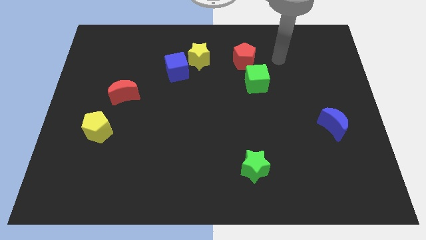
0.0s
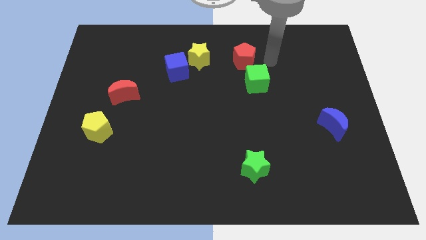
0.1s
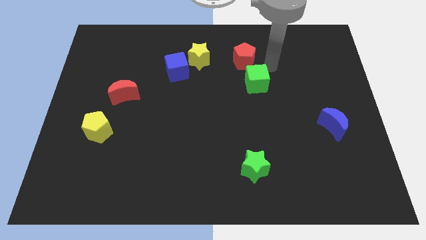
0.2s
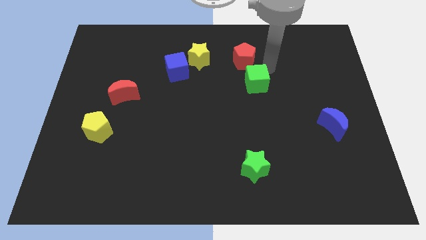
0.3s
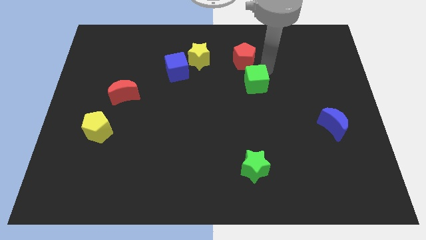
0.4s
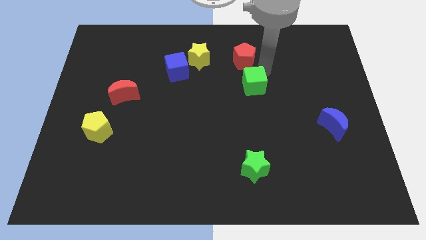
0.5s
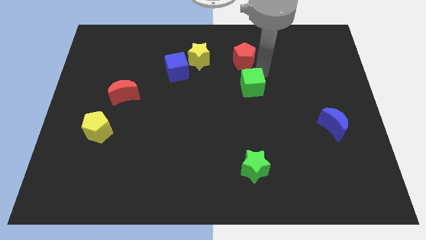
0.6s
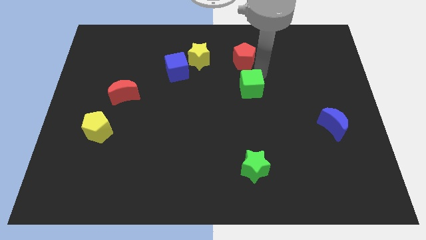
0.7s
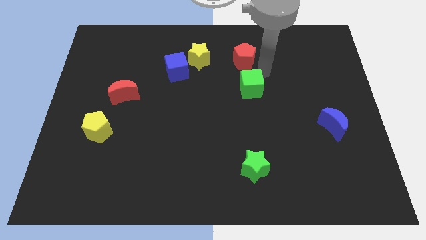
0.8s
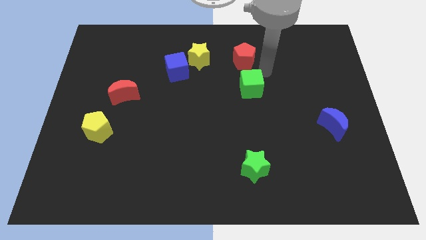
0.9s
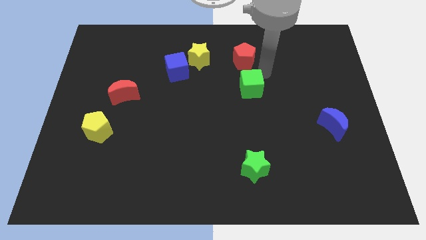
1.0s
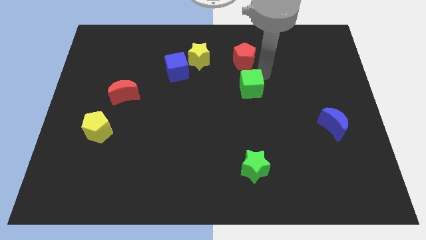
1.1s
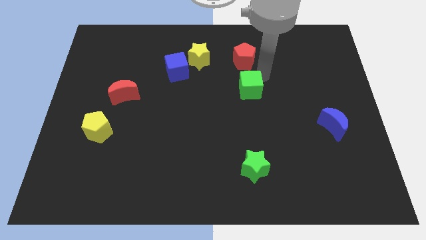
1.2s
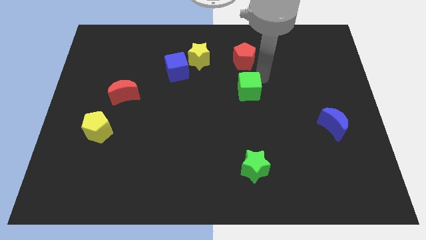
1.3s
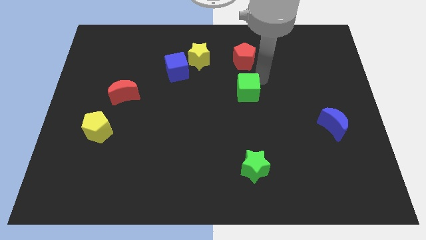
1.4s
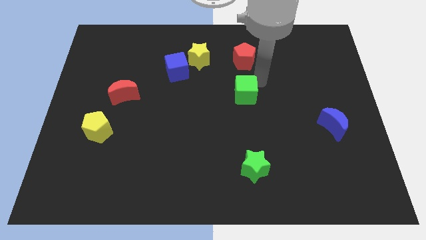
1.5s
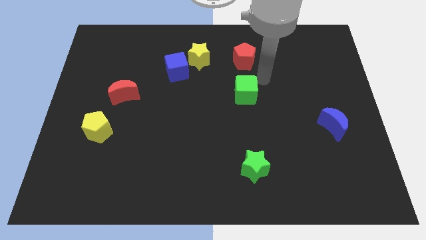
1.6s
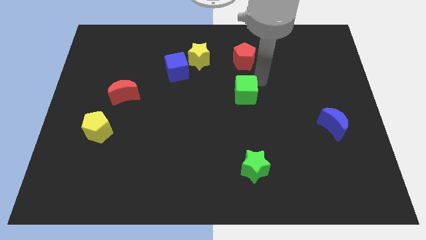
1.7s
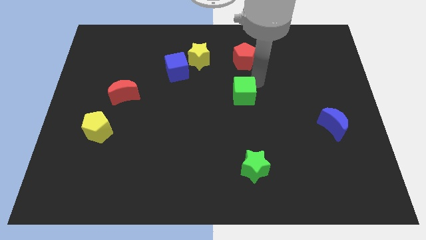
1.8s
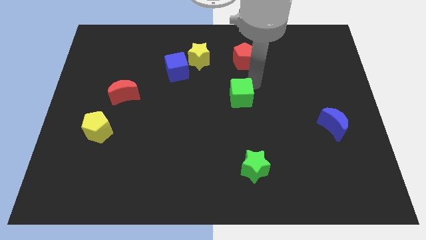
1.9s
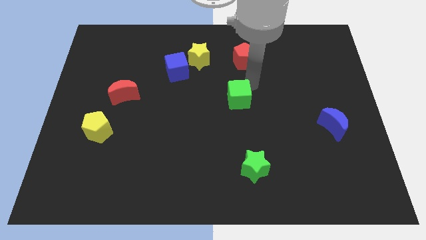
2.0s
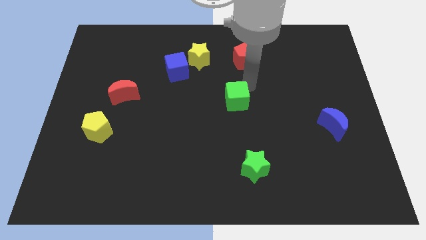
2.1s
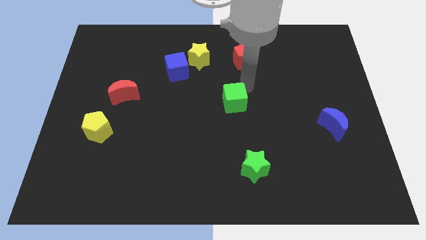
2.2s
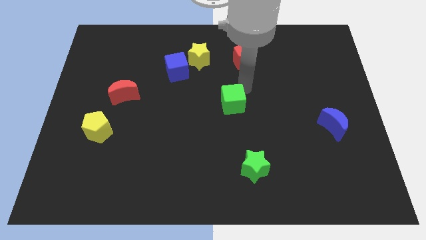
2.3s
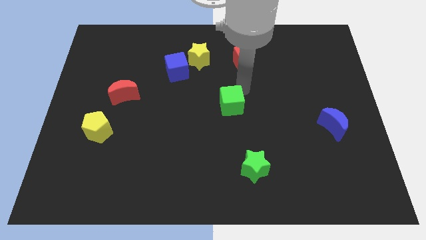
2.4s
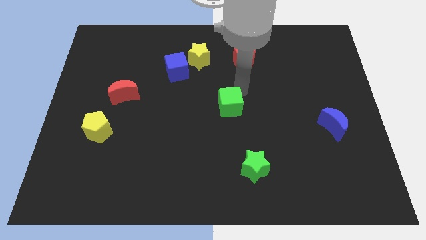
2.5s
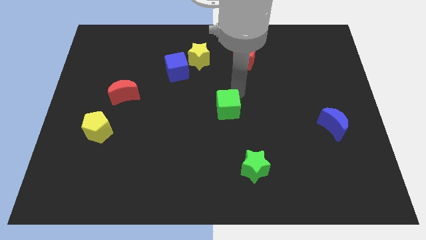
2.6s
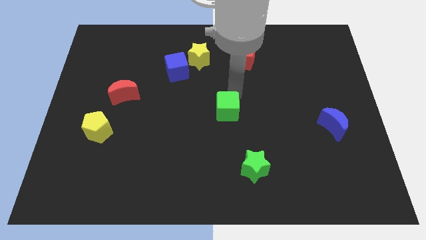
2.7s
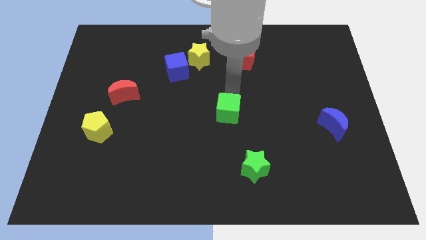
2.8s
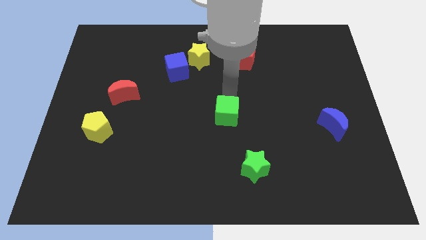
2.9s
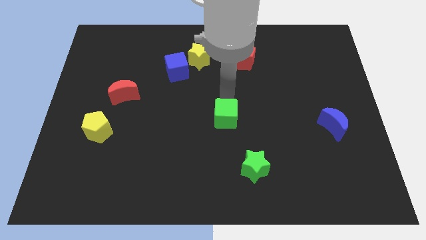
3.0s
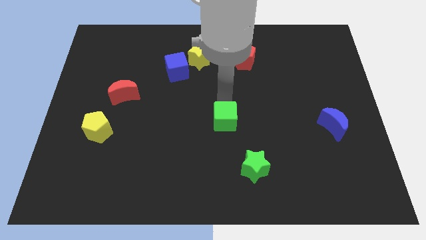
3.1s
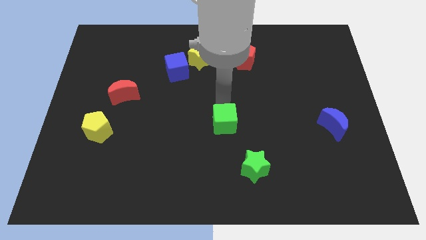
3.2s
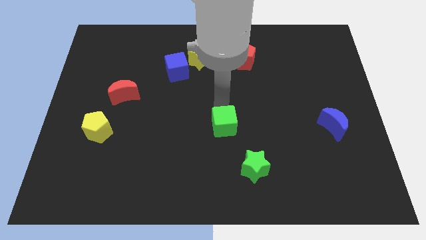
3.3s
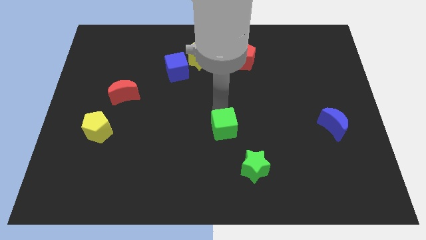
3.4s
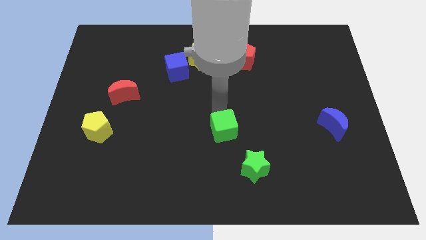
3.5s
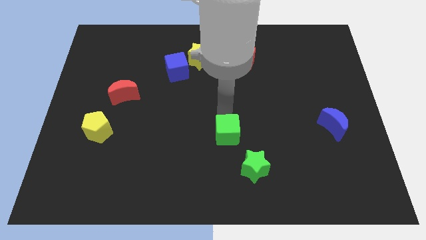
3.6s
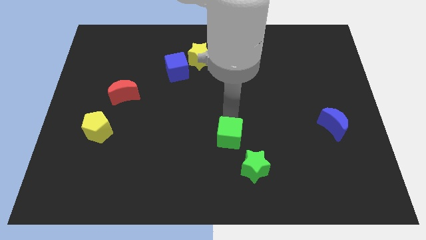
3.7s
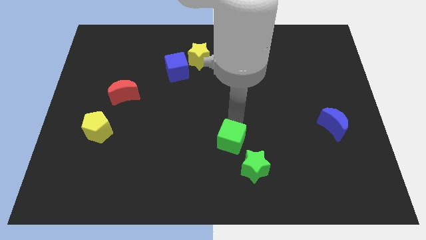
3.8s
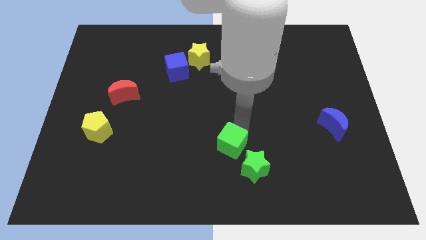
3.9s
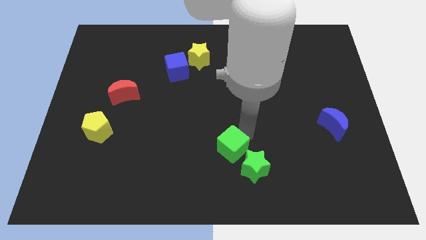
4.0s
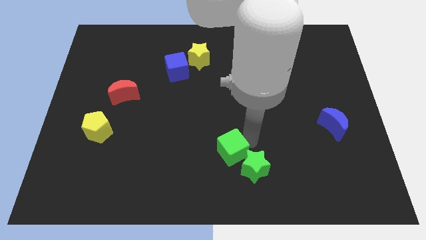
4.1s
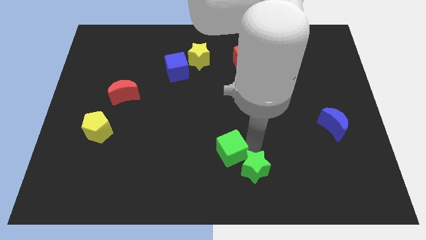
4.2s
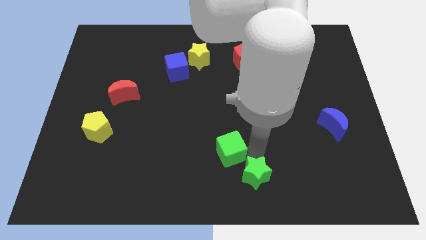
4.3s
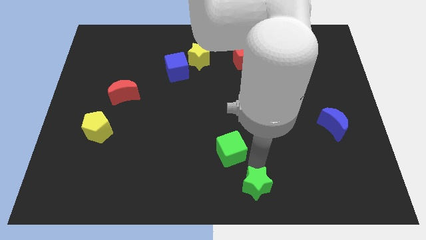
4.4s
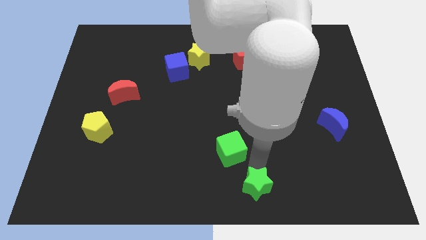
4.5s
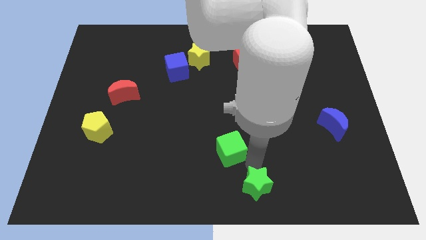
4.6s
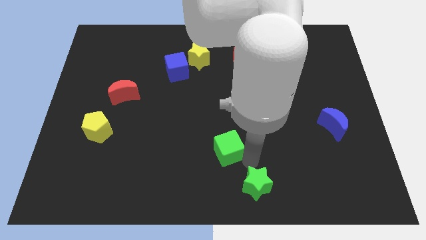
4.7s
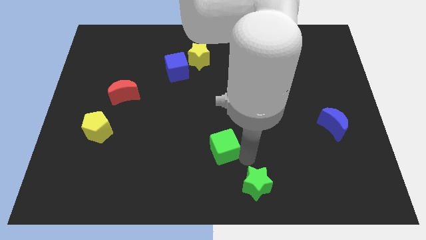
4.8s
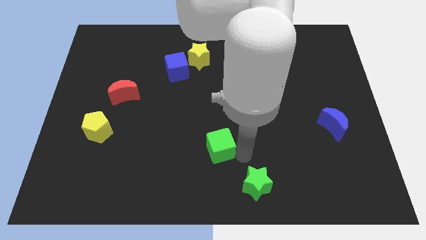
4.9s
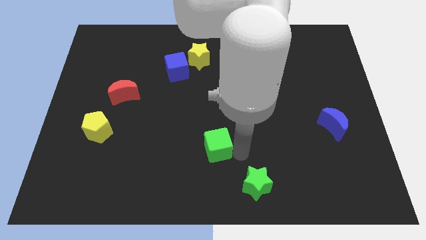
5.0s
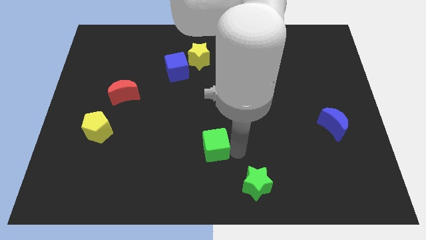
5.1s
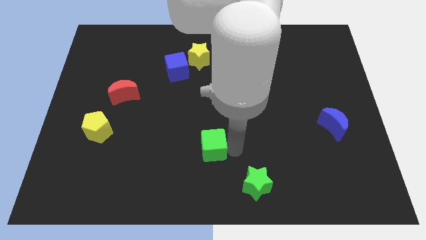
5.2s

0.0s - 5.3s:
slide the green cube down and then to the left

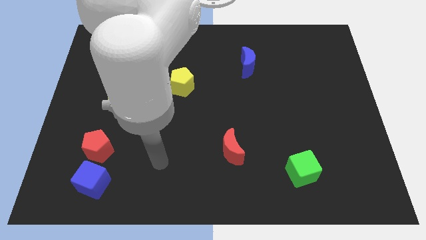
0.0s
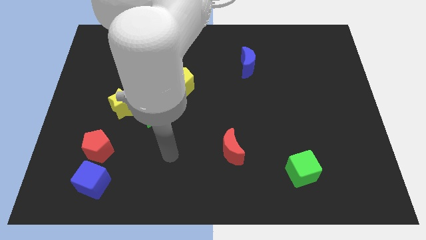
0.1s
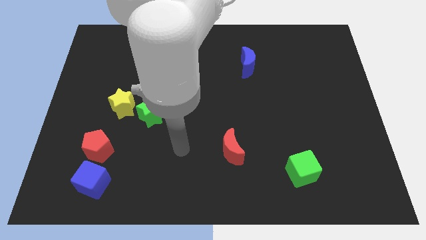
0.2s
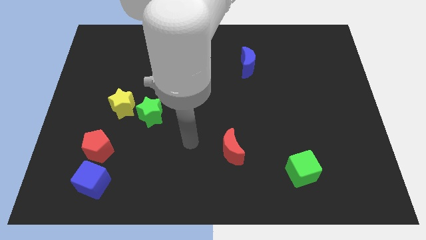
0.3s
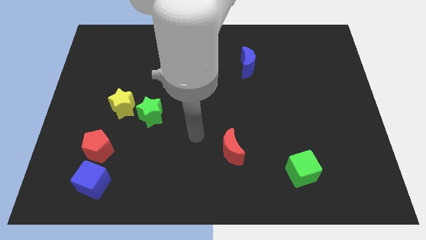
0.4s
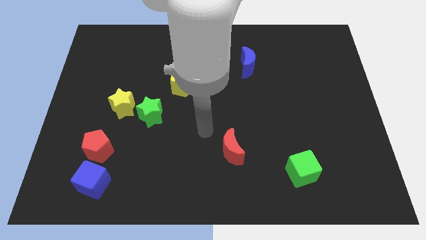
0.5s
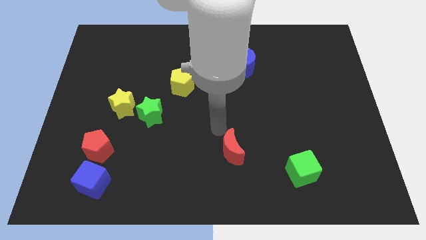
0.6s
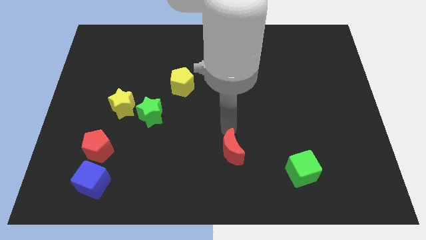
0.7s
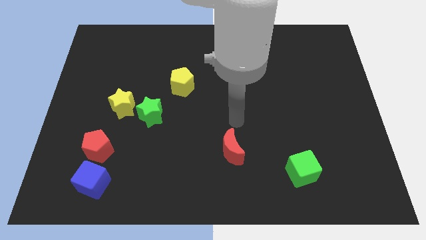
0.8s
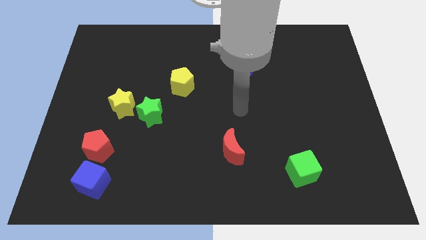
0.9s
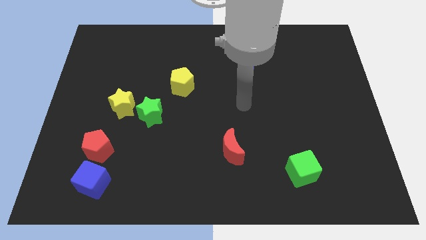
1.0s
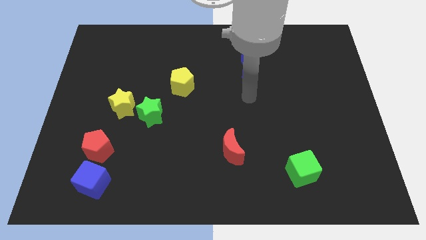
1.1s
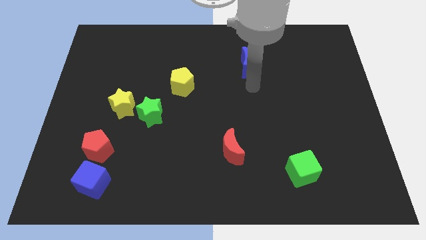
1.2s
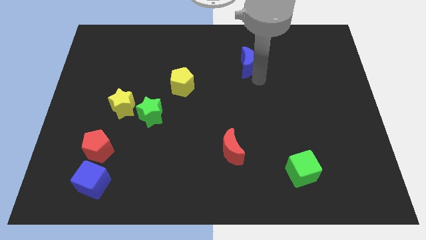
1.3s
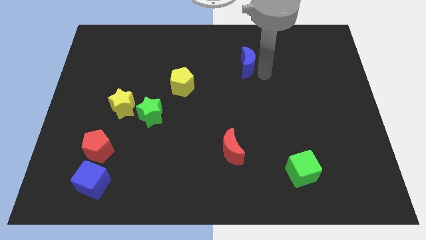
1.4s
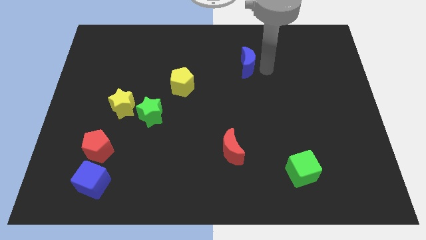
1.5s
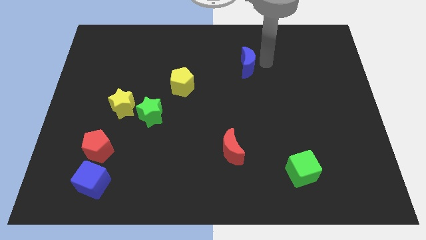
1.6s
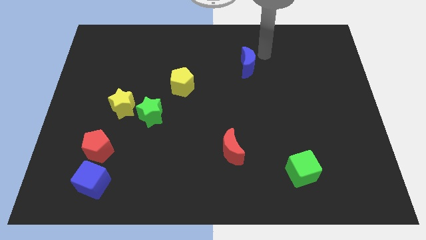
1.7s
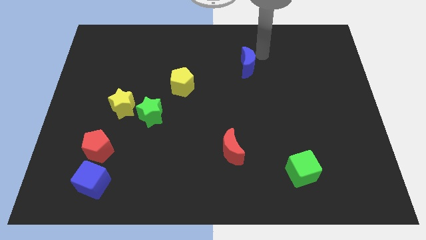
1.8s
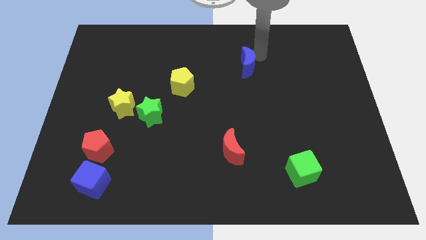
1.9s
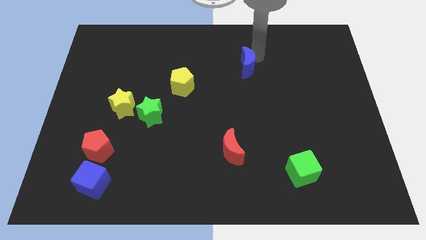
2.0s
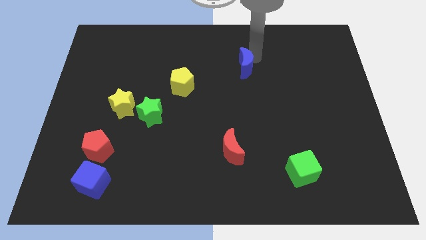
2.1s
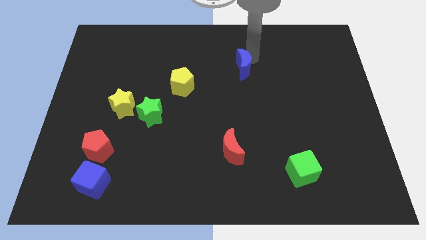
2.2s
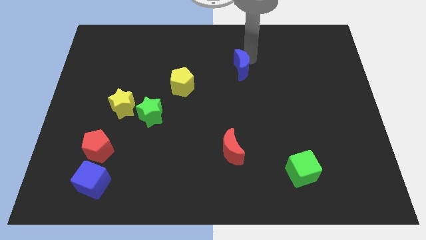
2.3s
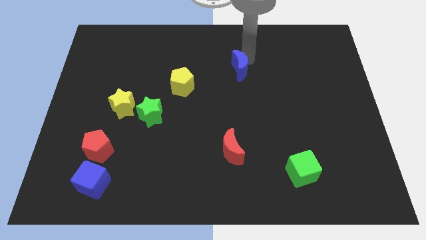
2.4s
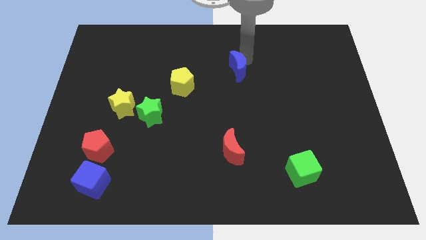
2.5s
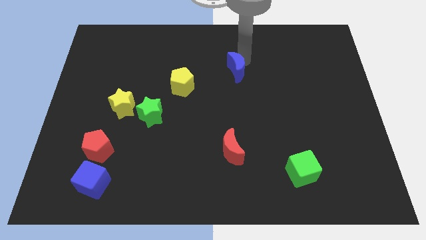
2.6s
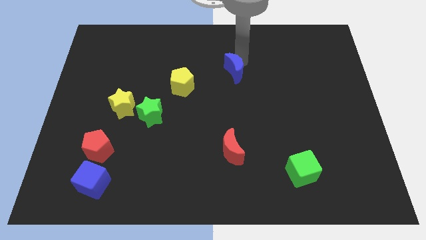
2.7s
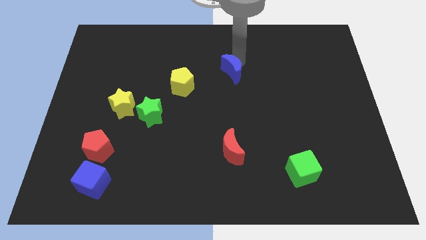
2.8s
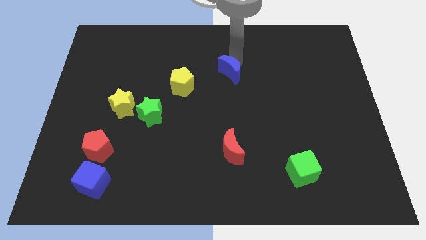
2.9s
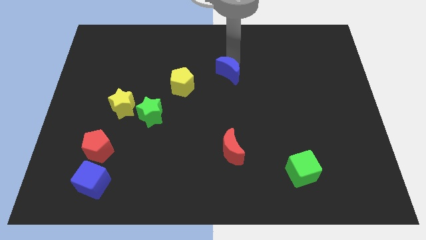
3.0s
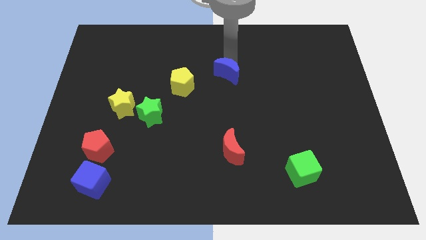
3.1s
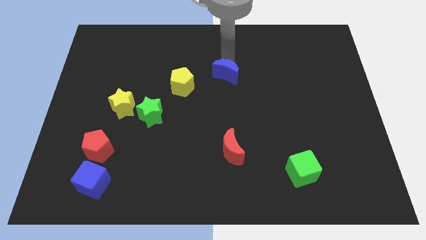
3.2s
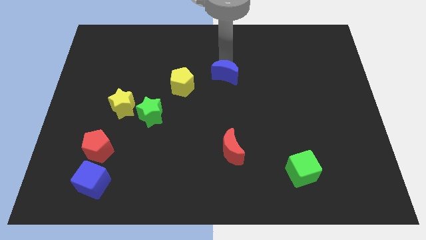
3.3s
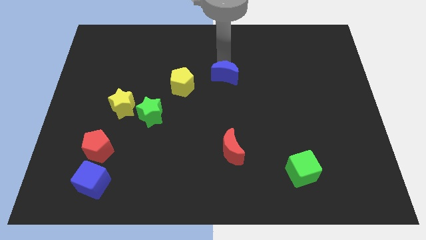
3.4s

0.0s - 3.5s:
push the blue moon downwards and left a little bit
